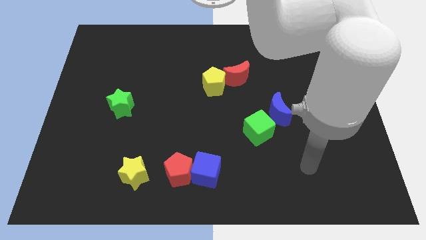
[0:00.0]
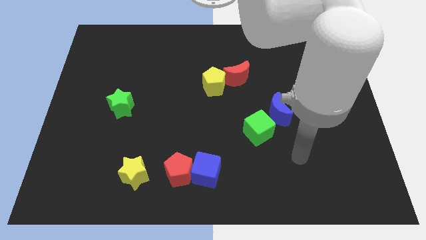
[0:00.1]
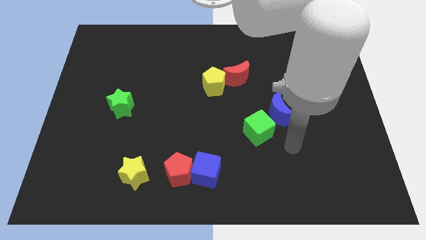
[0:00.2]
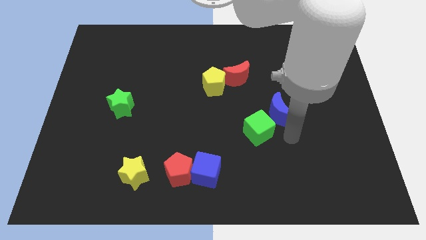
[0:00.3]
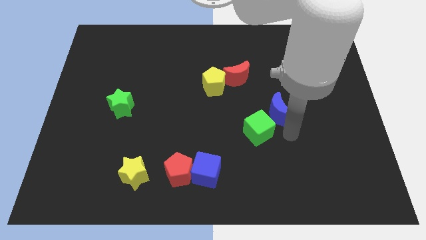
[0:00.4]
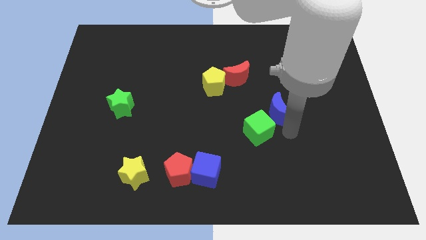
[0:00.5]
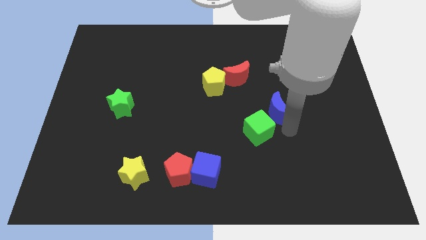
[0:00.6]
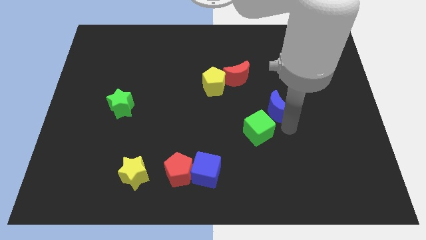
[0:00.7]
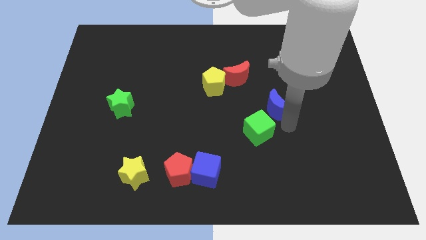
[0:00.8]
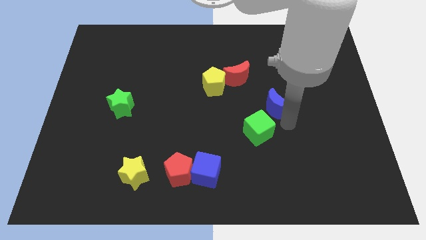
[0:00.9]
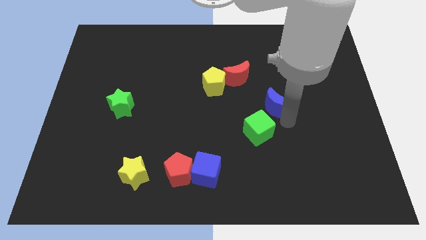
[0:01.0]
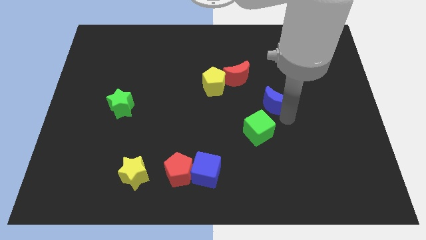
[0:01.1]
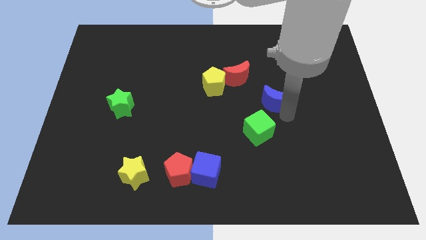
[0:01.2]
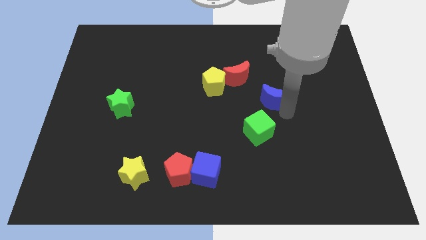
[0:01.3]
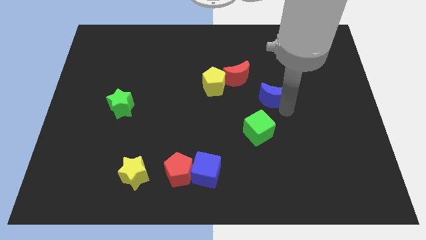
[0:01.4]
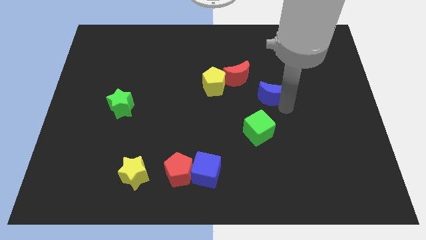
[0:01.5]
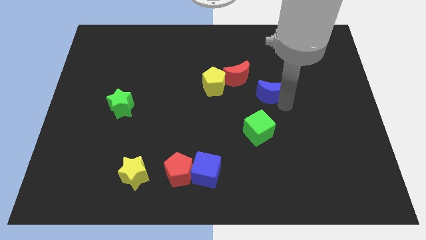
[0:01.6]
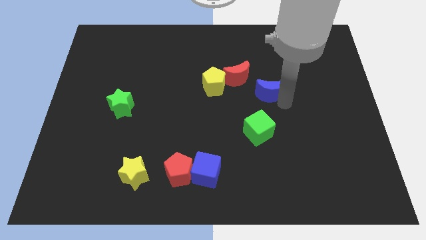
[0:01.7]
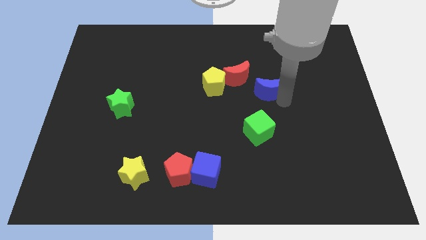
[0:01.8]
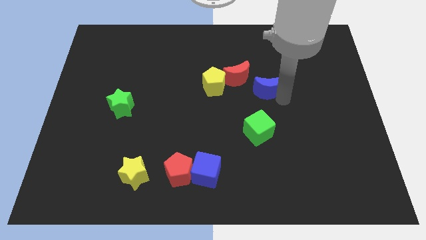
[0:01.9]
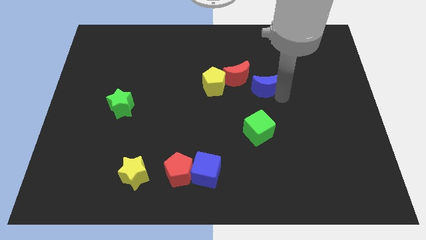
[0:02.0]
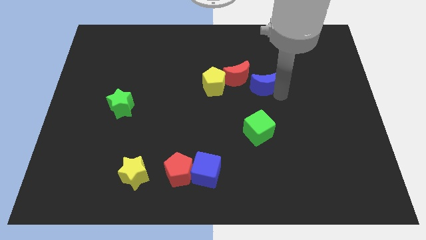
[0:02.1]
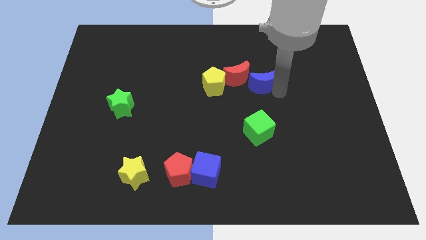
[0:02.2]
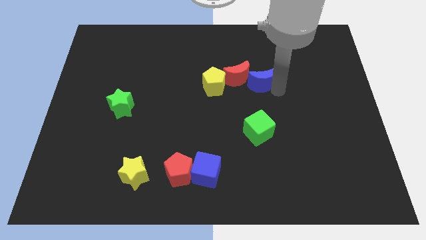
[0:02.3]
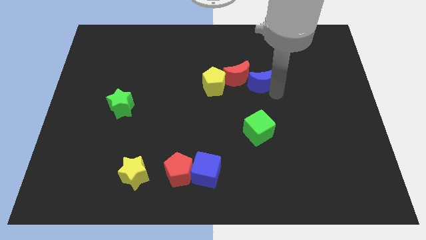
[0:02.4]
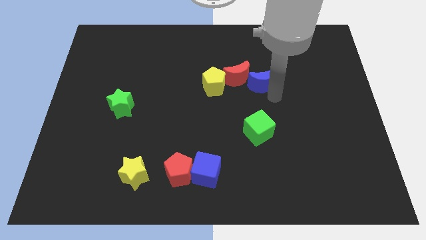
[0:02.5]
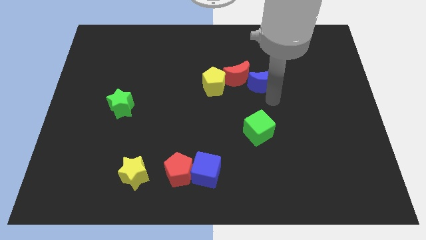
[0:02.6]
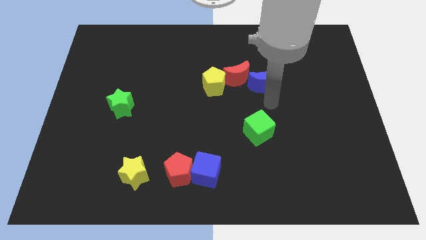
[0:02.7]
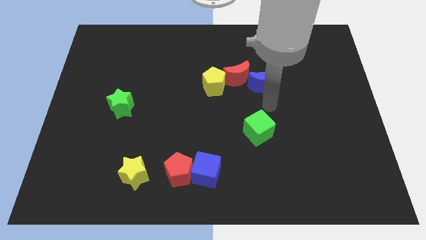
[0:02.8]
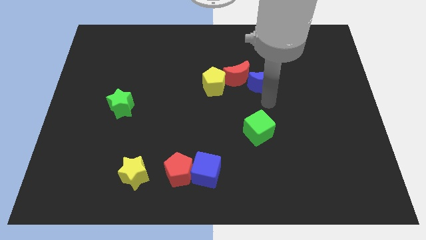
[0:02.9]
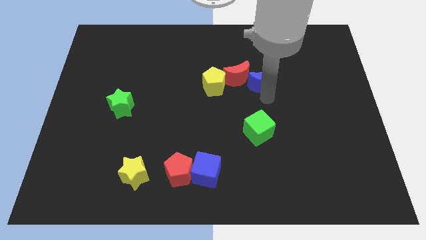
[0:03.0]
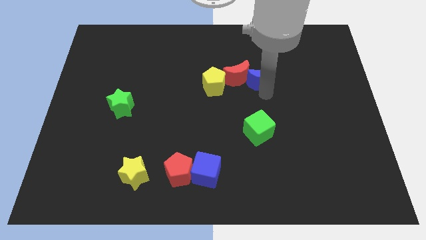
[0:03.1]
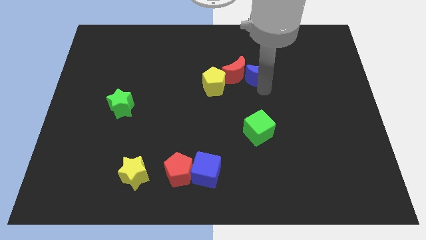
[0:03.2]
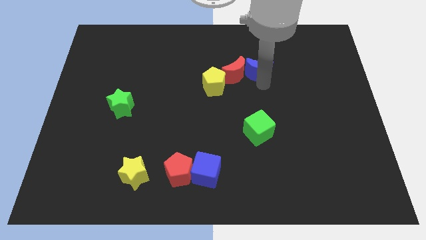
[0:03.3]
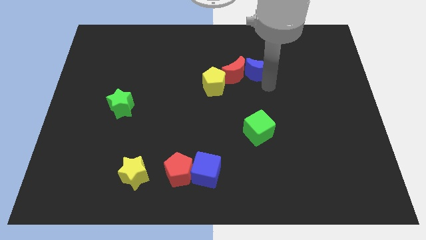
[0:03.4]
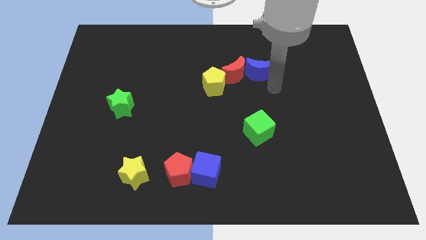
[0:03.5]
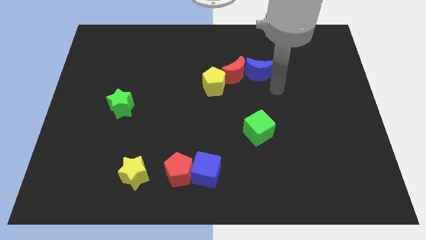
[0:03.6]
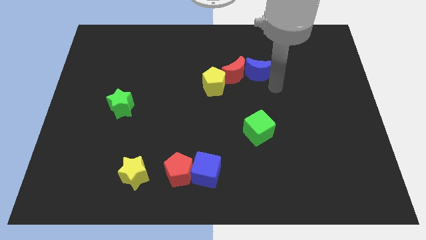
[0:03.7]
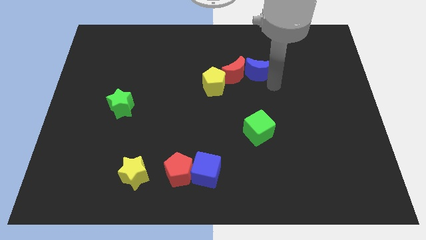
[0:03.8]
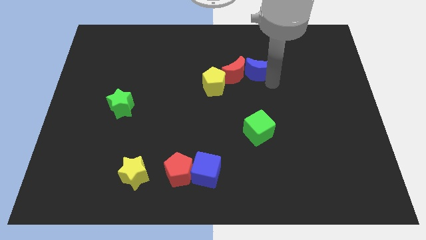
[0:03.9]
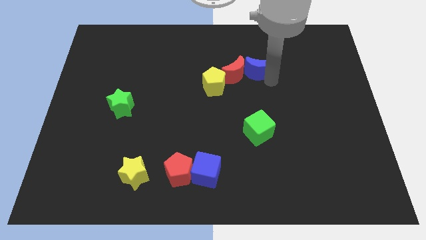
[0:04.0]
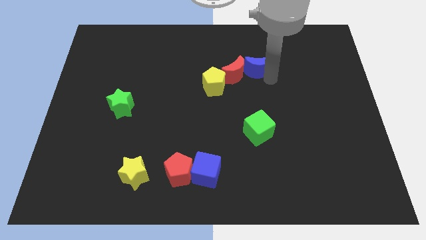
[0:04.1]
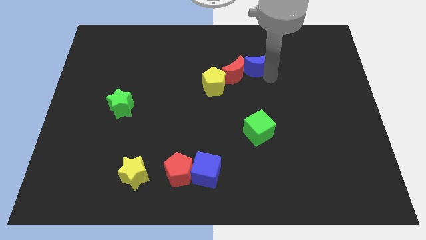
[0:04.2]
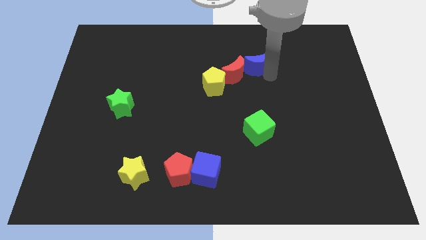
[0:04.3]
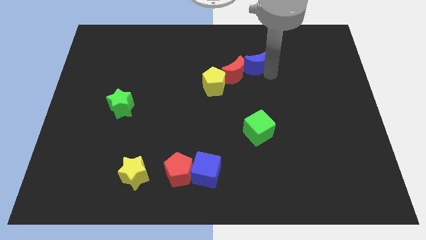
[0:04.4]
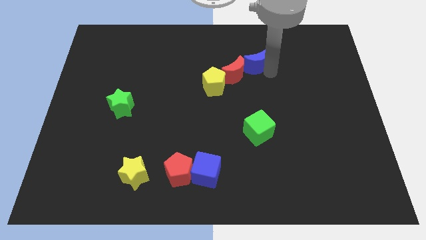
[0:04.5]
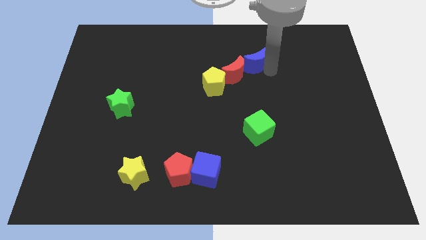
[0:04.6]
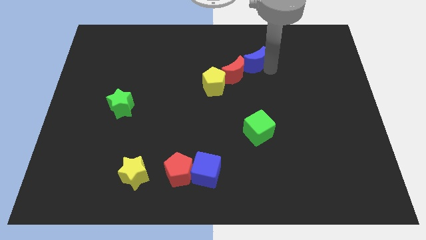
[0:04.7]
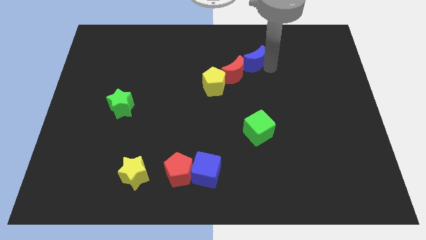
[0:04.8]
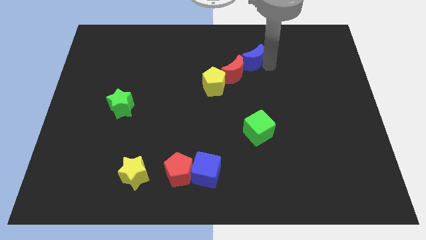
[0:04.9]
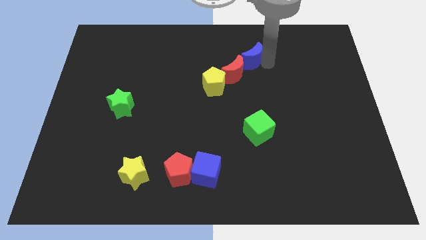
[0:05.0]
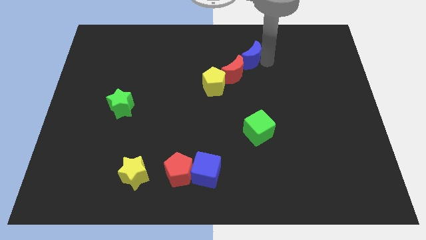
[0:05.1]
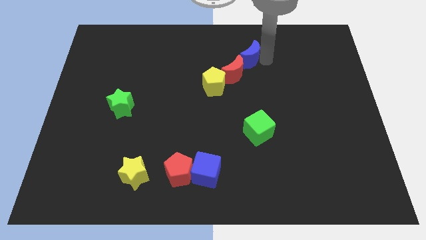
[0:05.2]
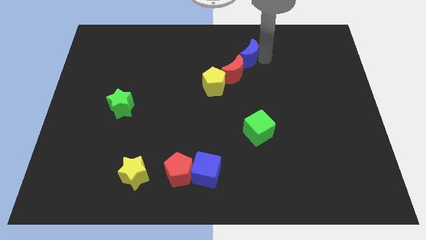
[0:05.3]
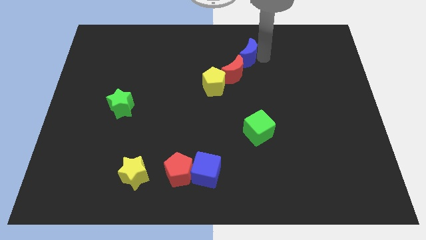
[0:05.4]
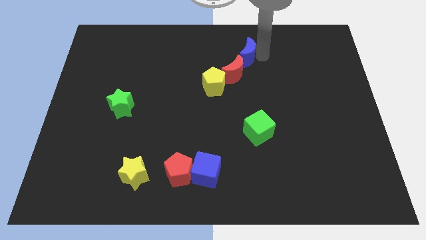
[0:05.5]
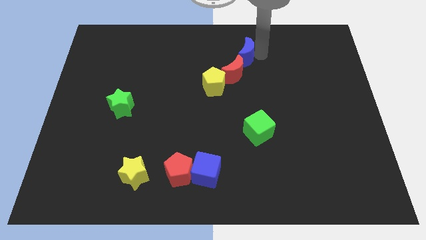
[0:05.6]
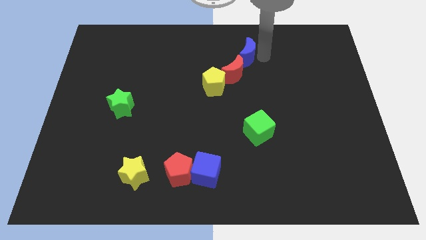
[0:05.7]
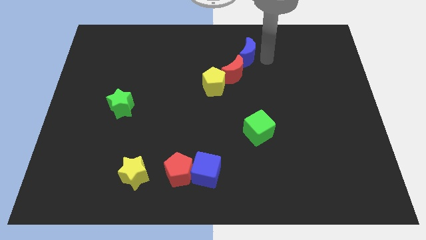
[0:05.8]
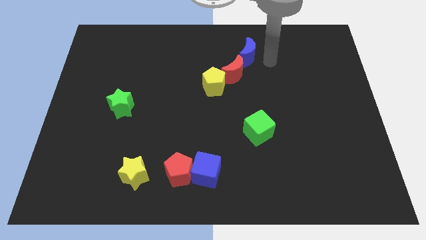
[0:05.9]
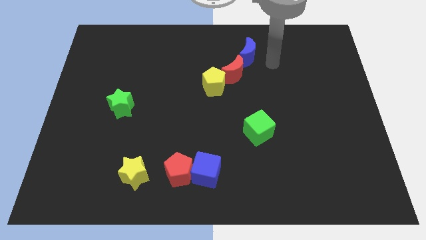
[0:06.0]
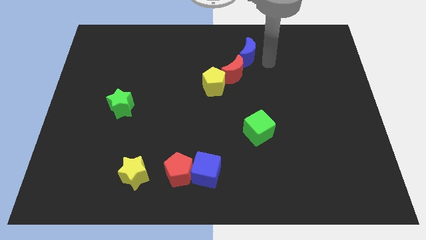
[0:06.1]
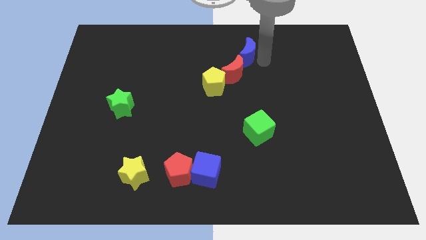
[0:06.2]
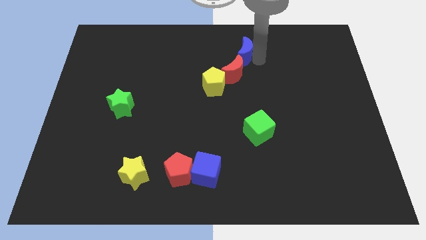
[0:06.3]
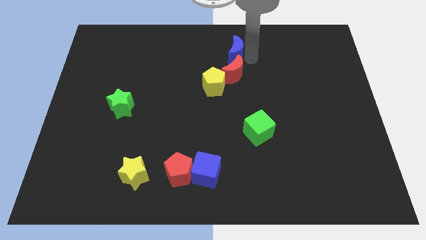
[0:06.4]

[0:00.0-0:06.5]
slide the blue moon to the towards your base
